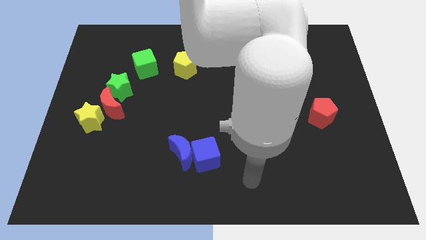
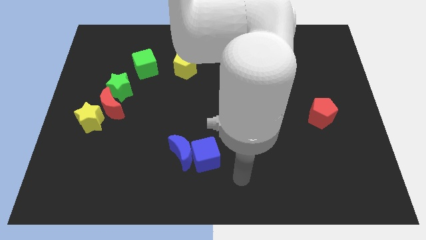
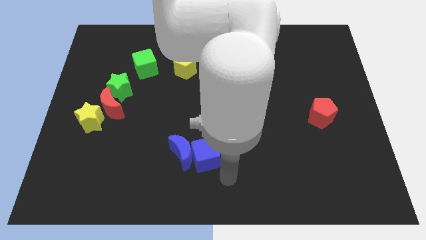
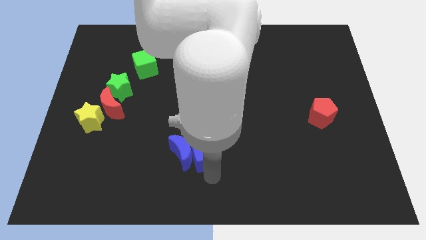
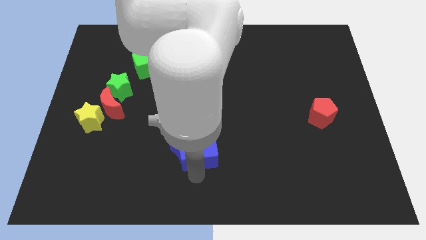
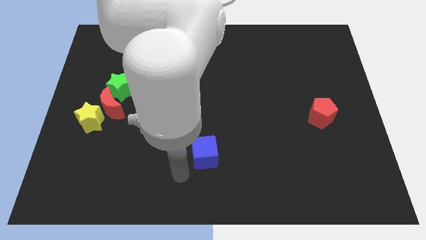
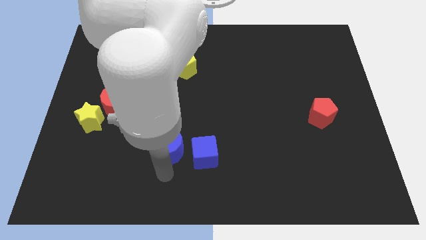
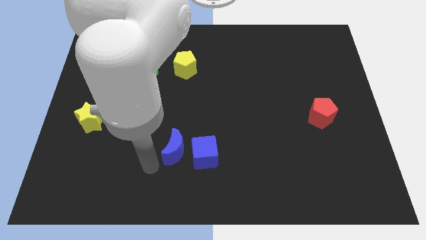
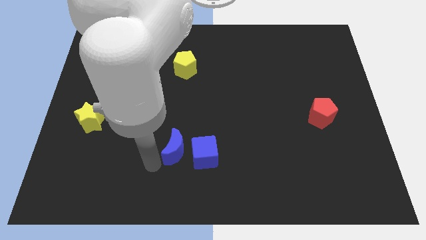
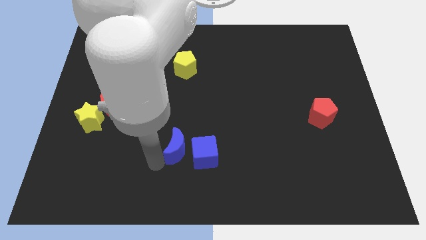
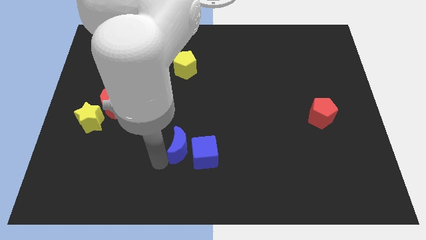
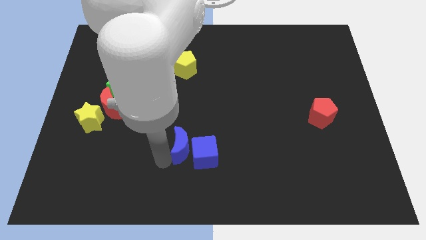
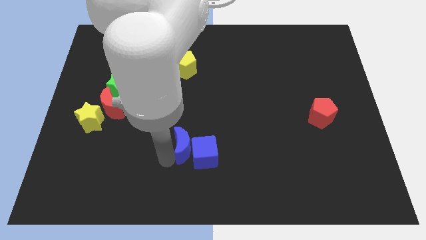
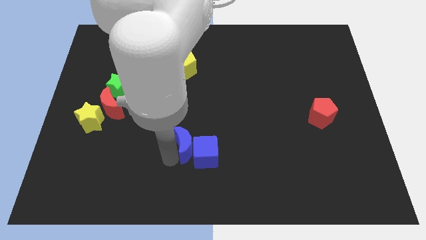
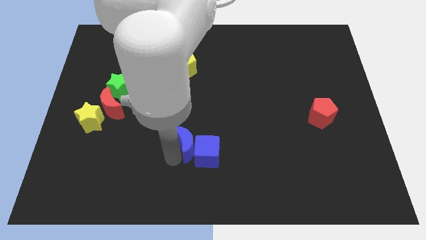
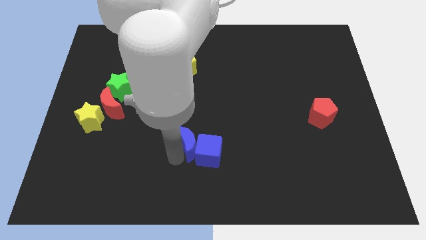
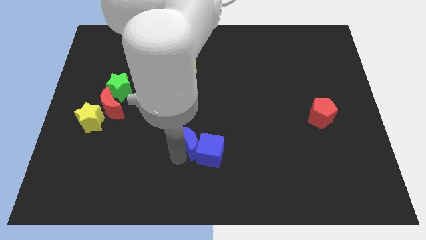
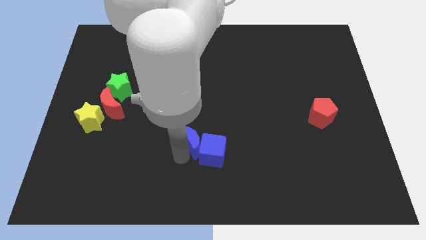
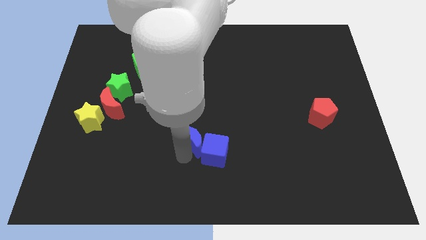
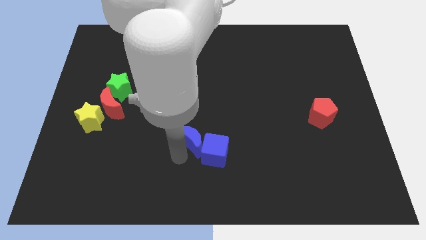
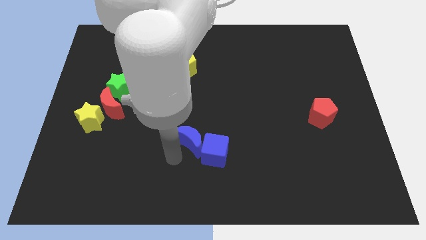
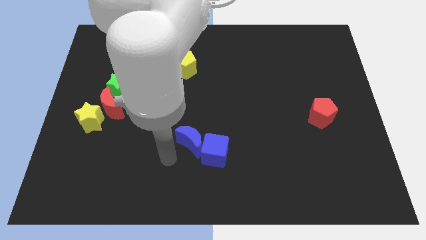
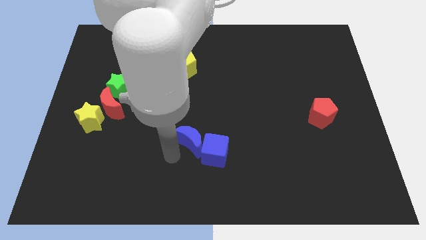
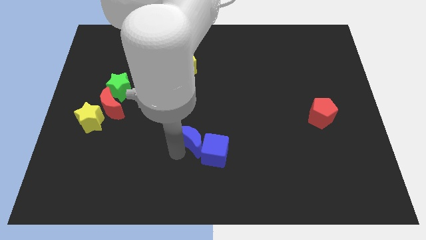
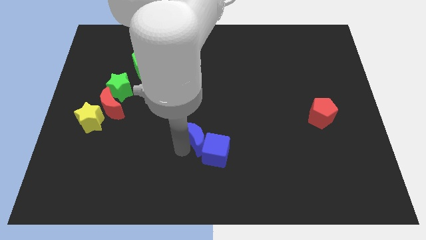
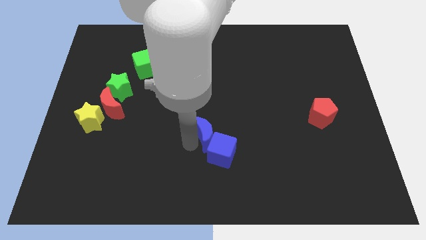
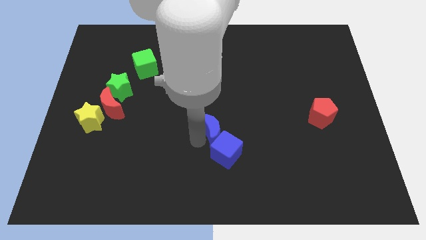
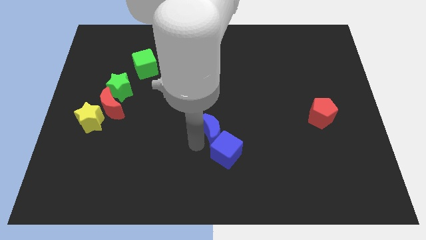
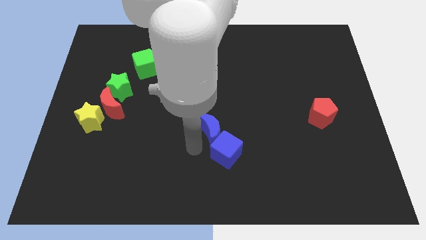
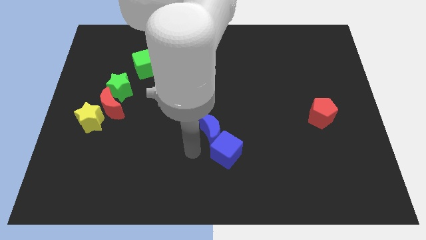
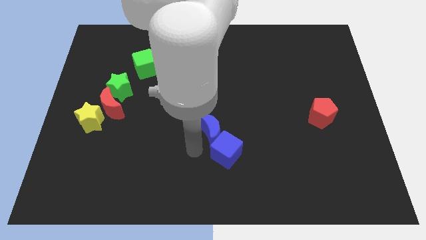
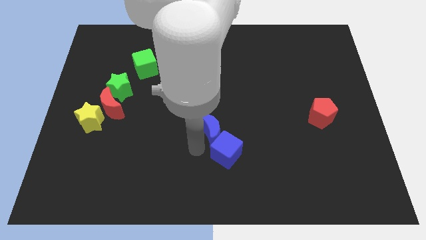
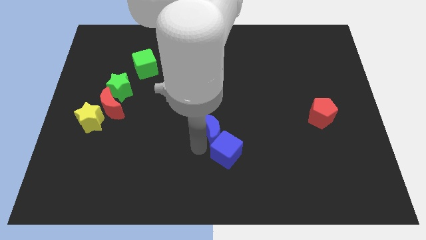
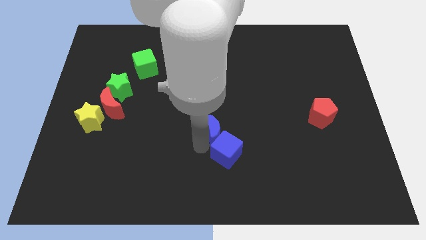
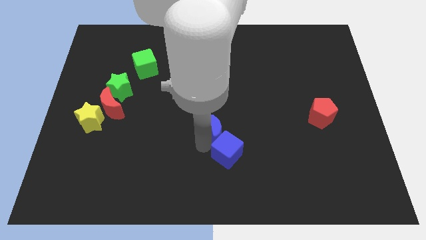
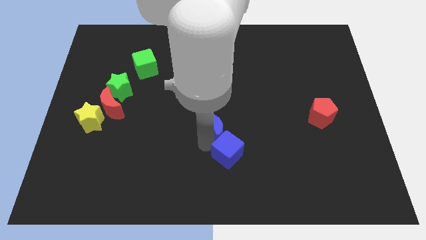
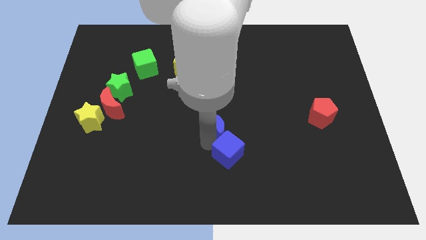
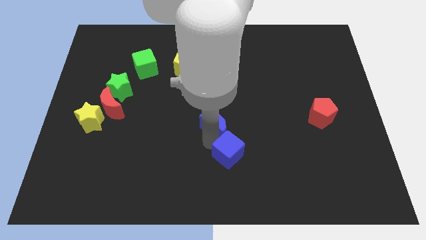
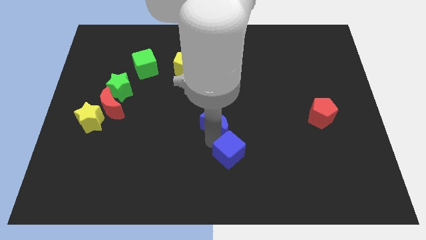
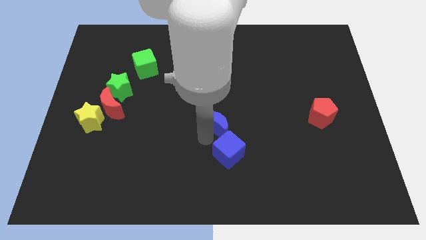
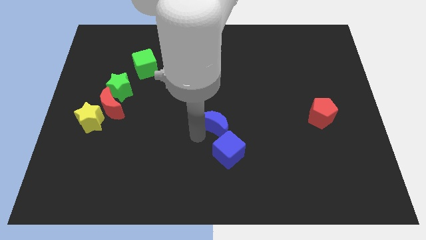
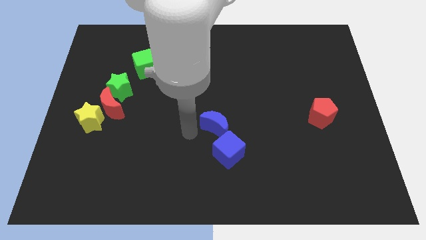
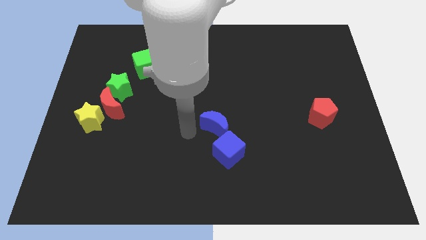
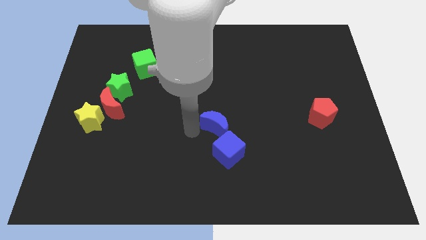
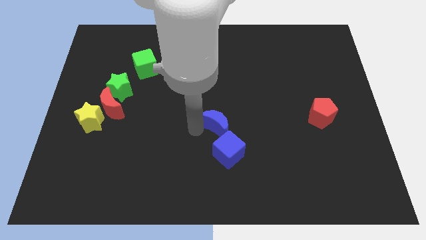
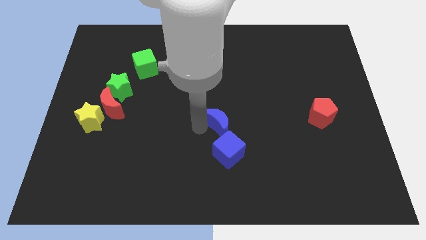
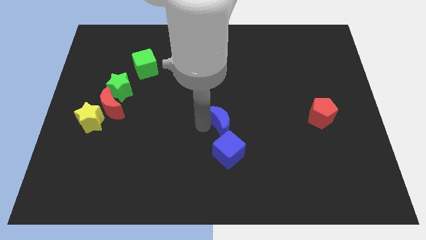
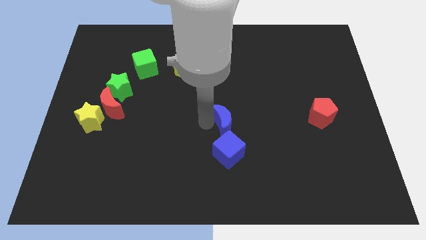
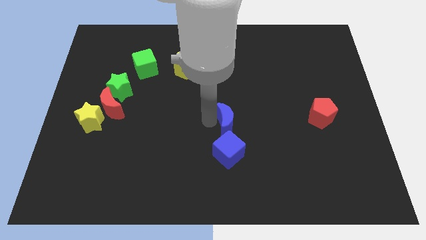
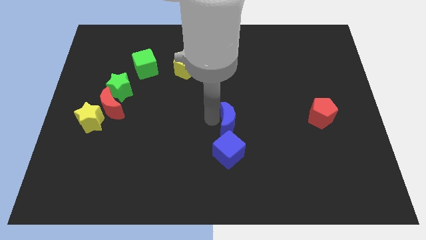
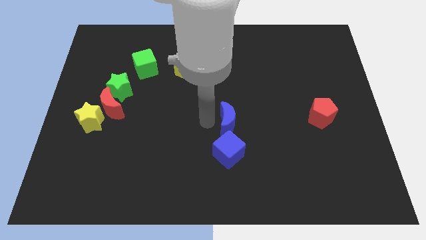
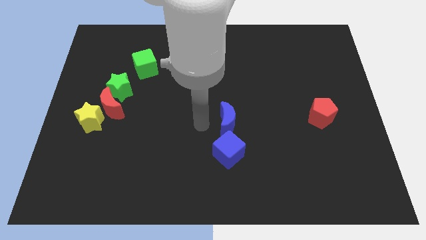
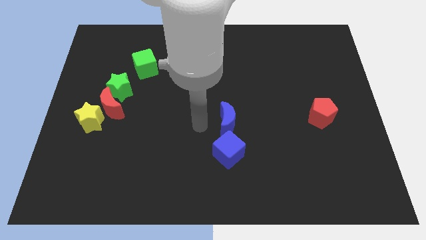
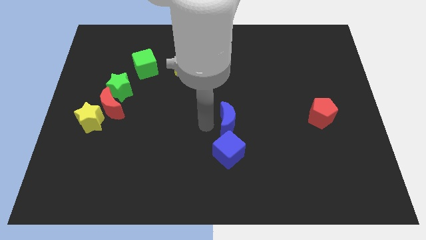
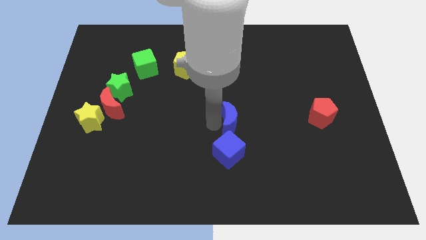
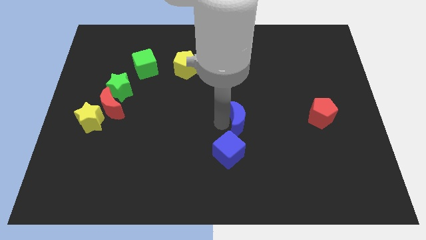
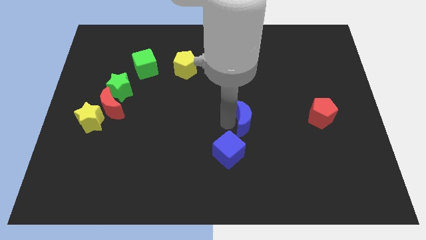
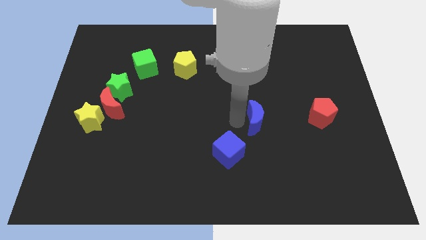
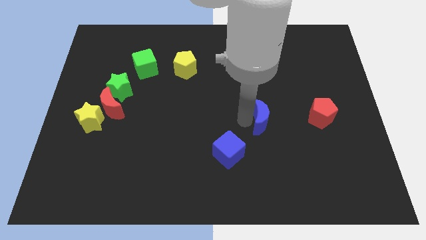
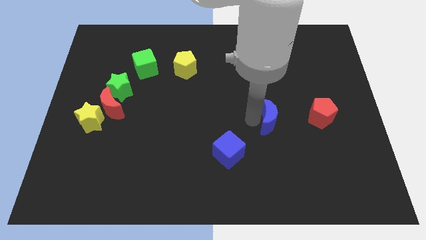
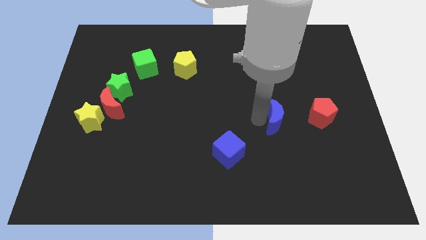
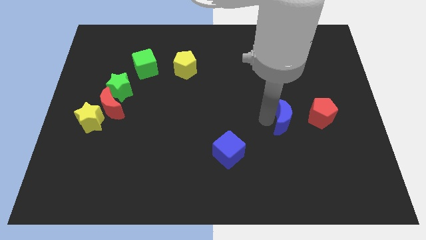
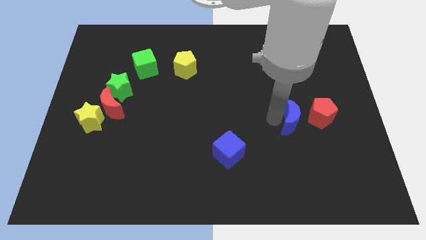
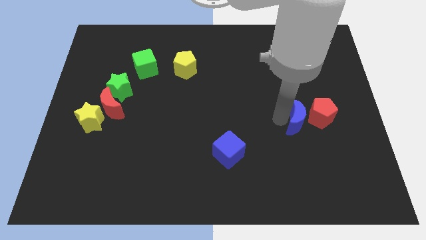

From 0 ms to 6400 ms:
put the blue moon towards the red pentagon

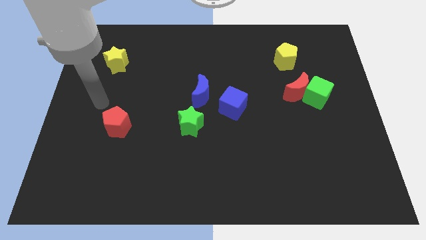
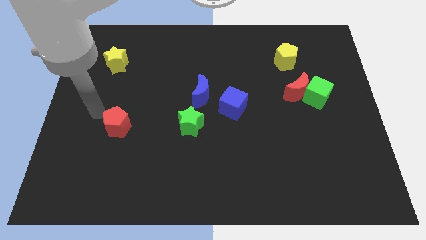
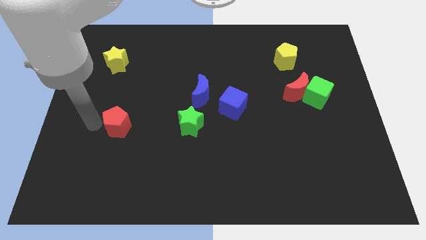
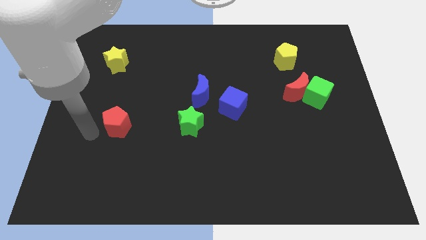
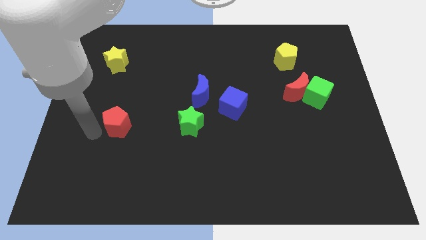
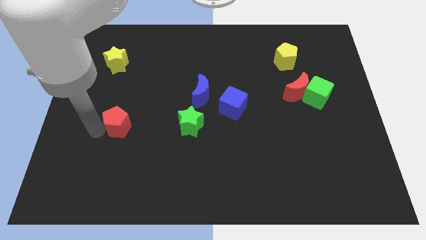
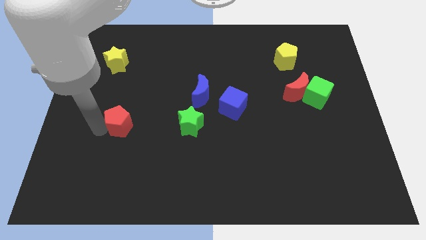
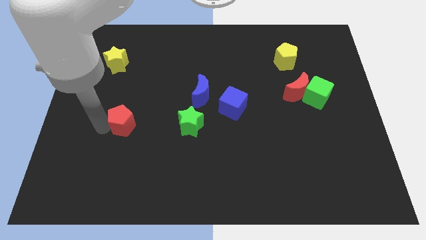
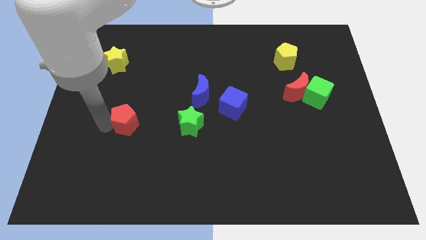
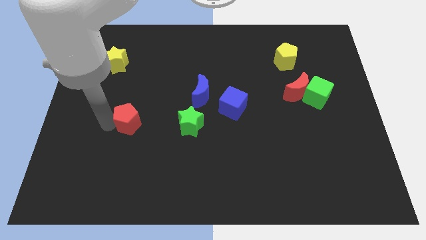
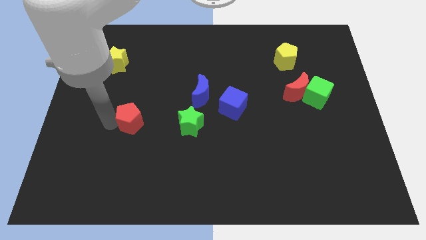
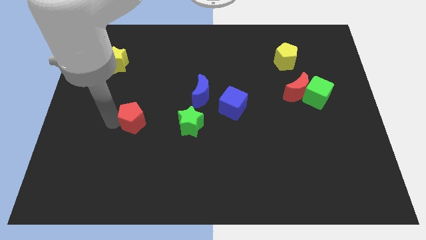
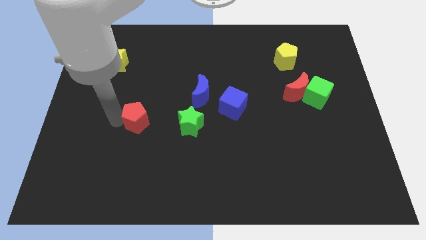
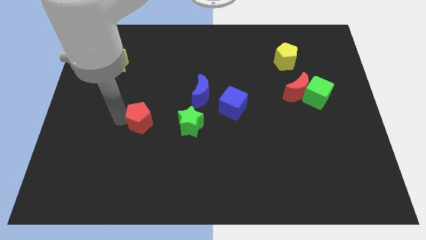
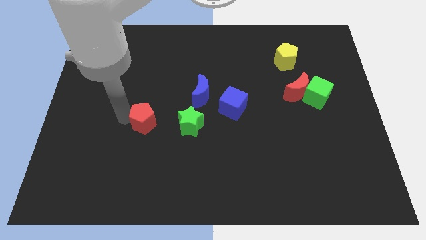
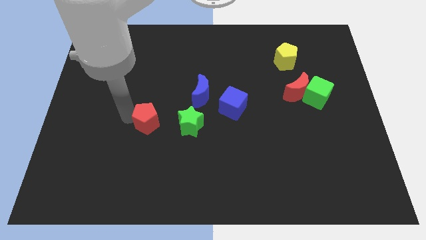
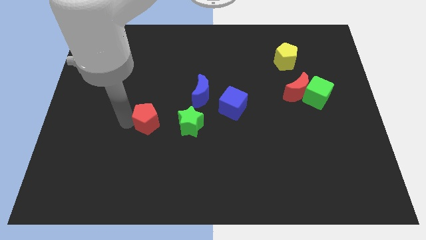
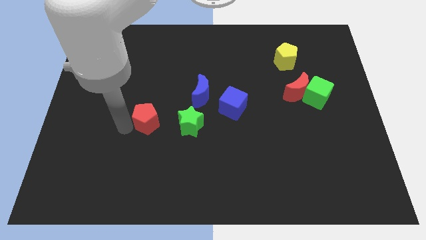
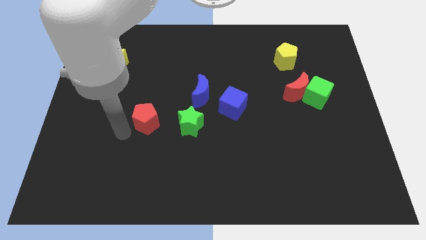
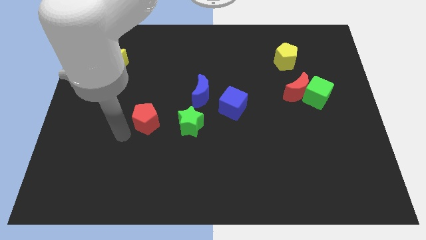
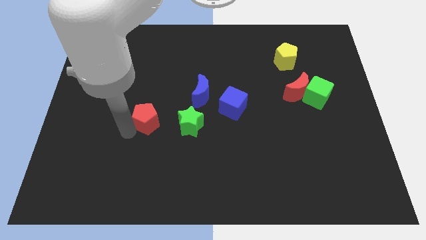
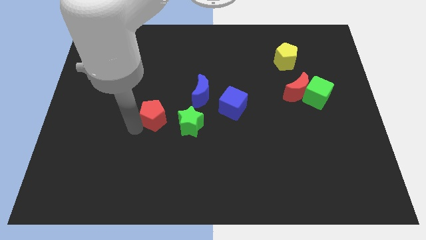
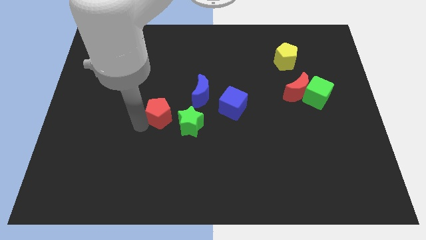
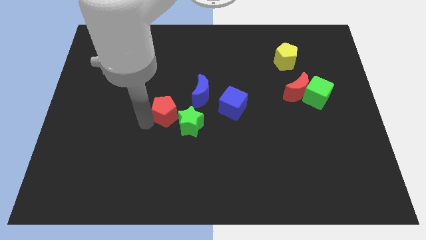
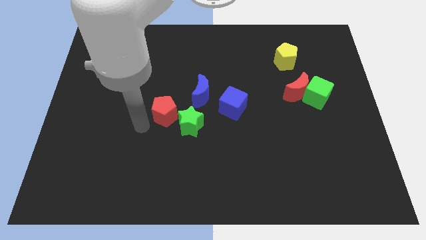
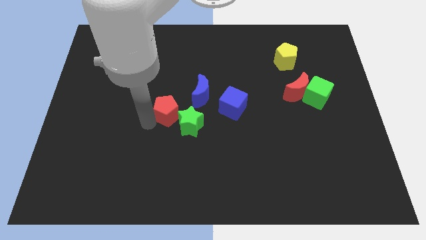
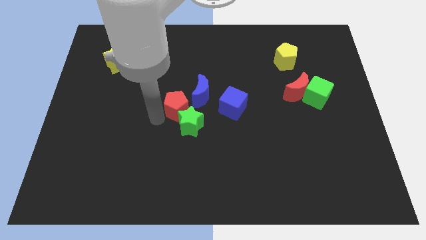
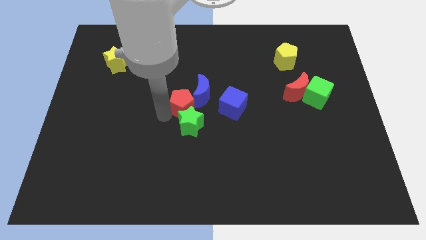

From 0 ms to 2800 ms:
put the red pentagon next to the blue moon
